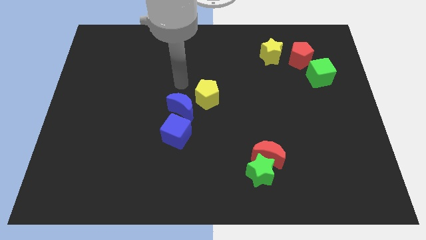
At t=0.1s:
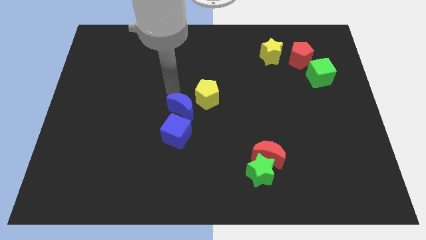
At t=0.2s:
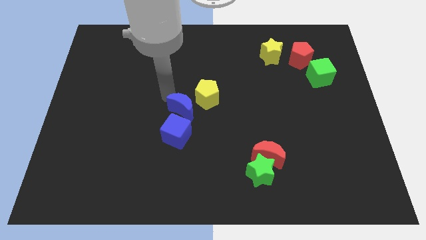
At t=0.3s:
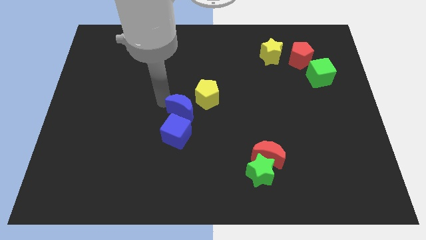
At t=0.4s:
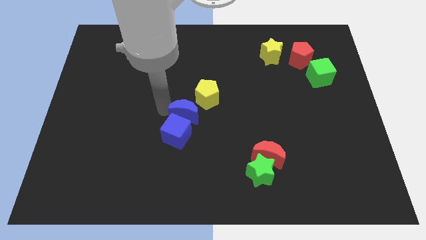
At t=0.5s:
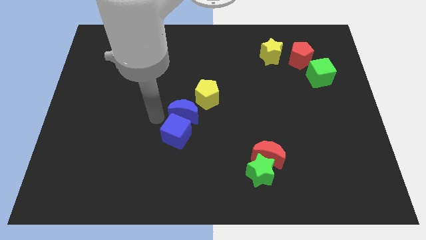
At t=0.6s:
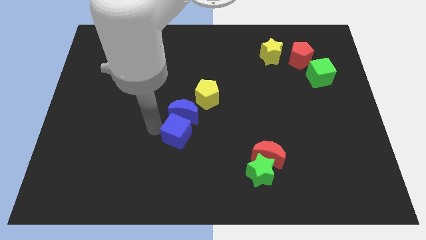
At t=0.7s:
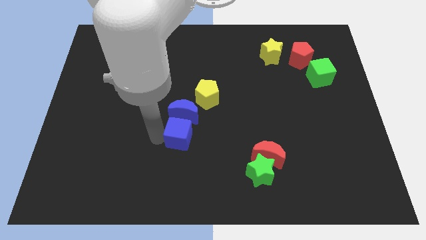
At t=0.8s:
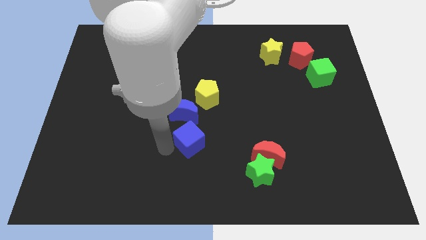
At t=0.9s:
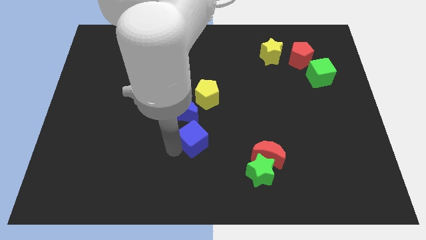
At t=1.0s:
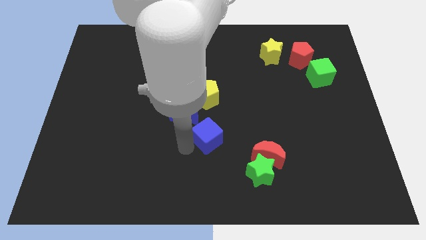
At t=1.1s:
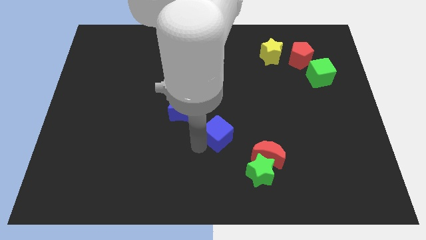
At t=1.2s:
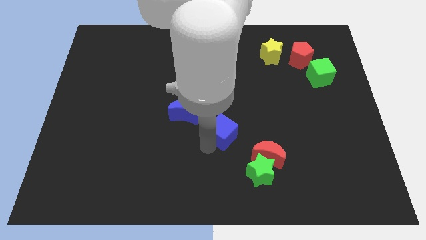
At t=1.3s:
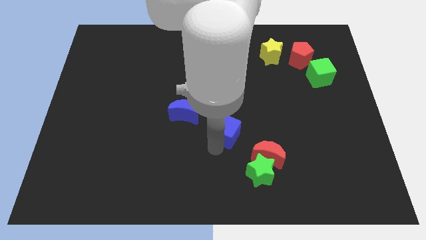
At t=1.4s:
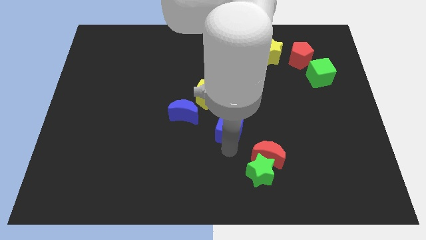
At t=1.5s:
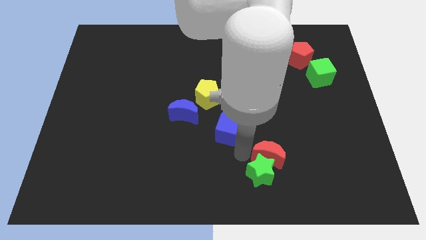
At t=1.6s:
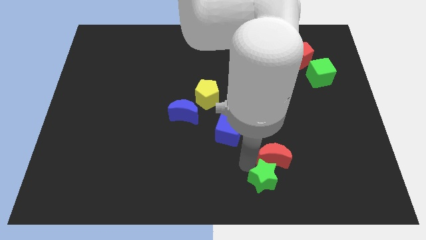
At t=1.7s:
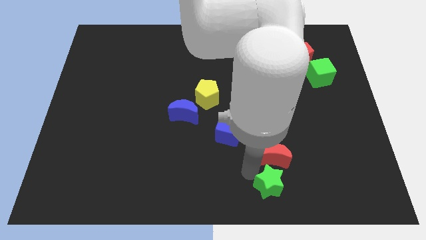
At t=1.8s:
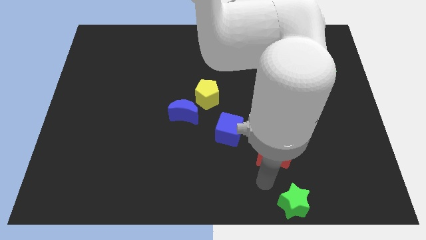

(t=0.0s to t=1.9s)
separate the red moon from the green star

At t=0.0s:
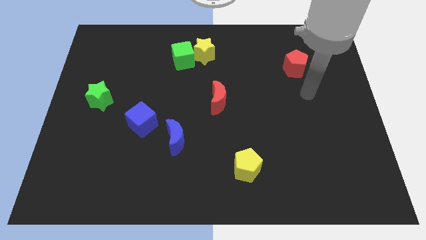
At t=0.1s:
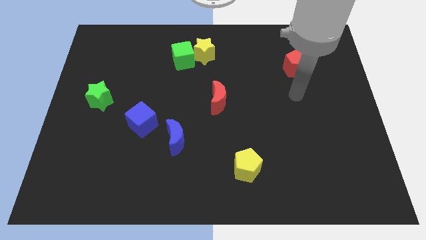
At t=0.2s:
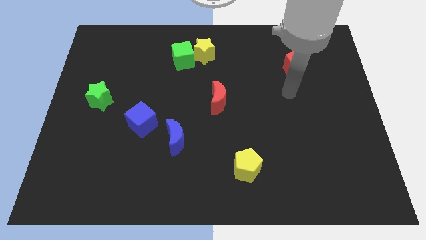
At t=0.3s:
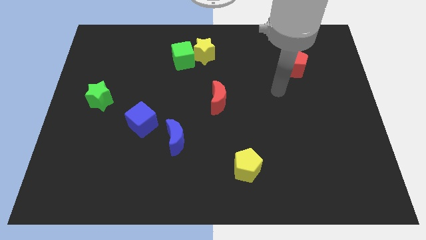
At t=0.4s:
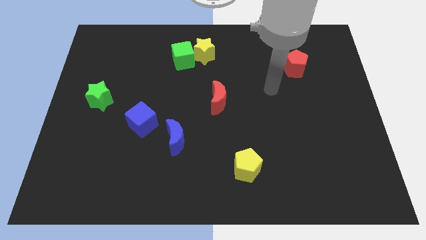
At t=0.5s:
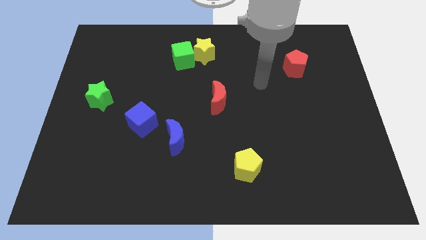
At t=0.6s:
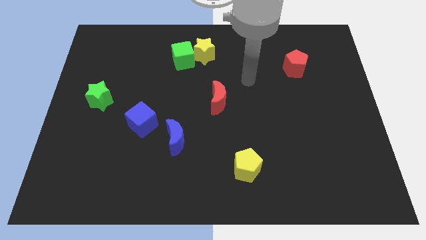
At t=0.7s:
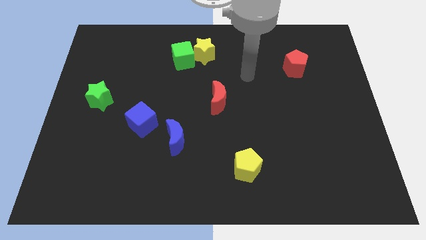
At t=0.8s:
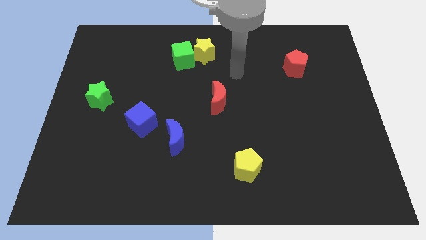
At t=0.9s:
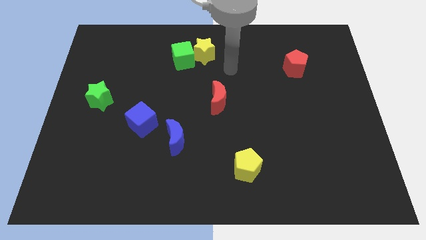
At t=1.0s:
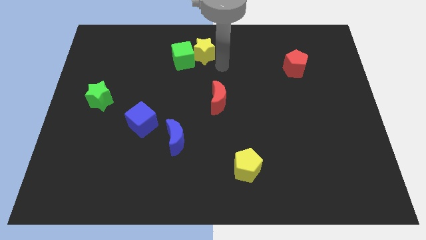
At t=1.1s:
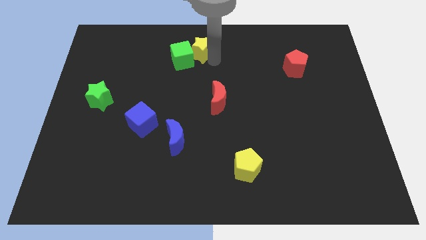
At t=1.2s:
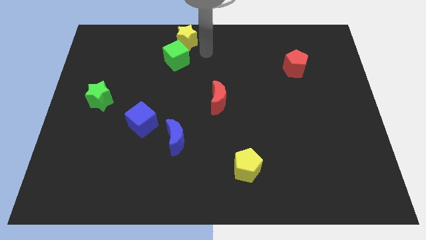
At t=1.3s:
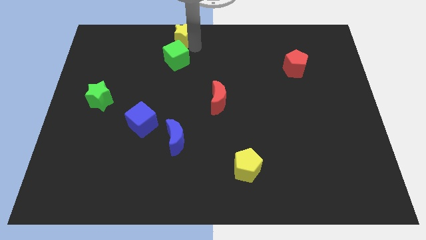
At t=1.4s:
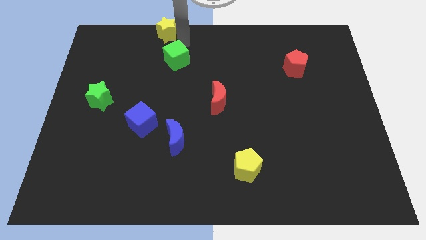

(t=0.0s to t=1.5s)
move the green cube away from the yellow star

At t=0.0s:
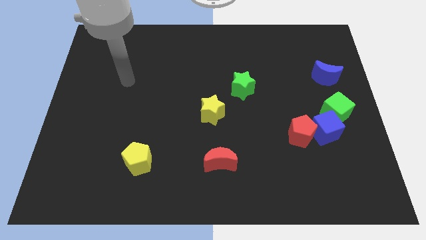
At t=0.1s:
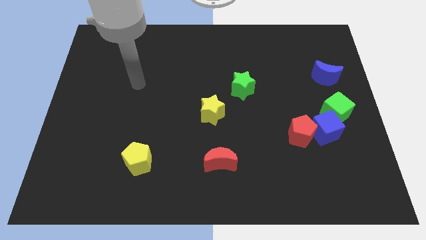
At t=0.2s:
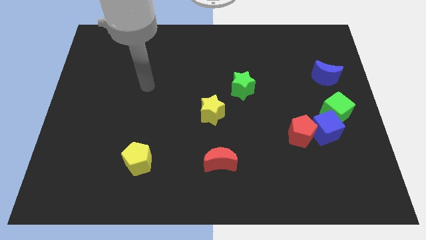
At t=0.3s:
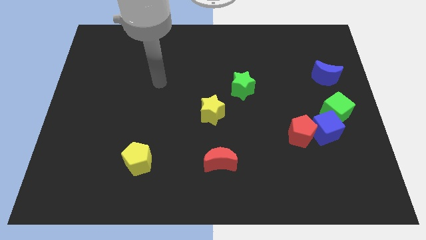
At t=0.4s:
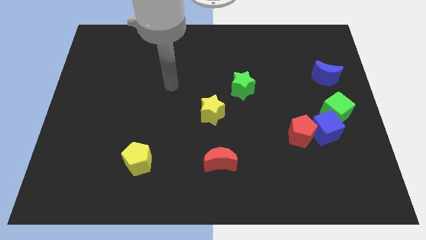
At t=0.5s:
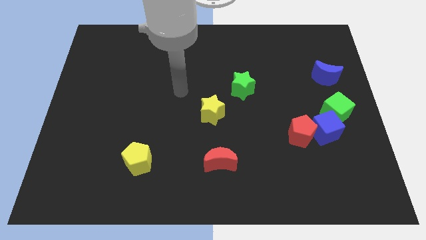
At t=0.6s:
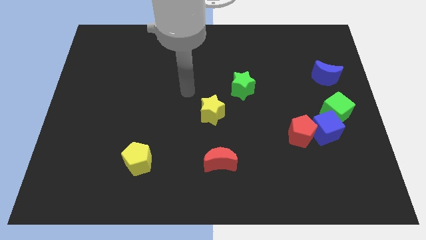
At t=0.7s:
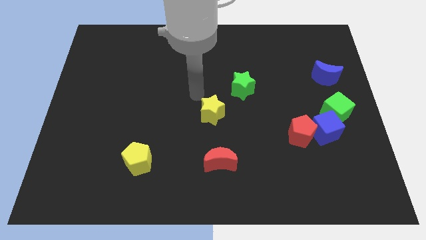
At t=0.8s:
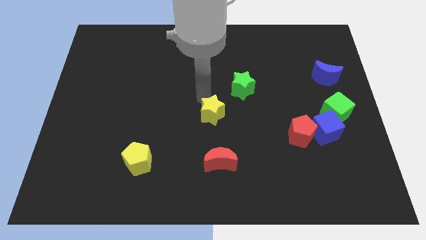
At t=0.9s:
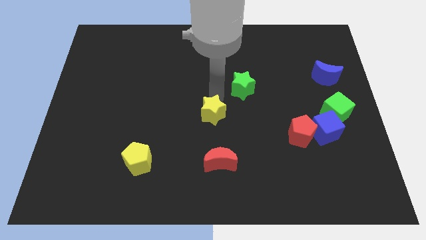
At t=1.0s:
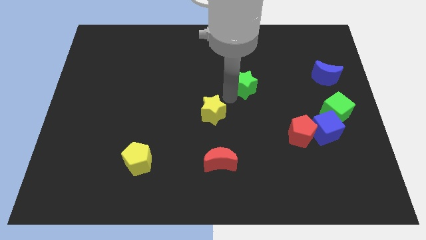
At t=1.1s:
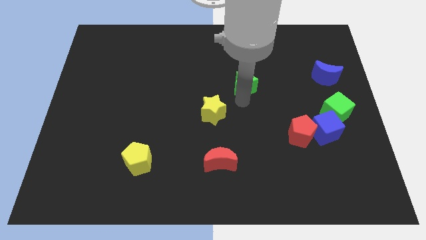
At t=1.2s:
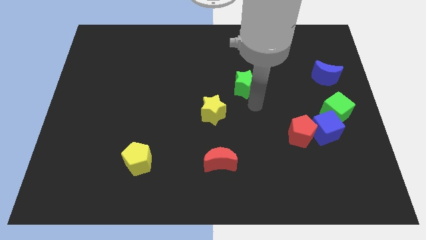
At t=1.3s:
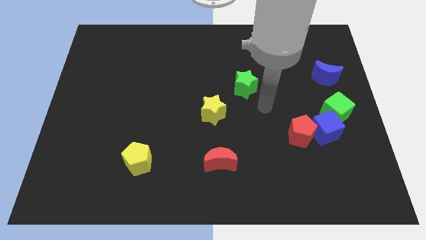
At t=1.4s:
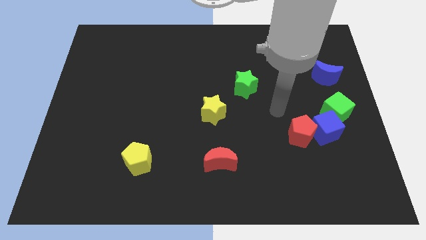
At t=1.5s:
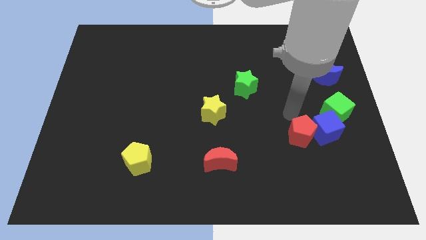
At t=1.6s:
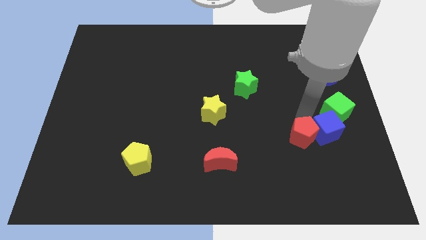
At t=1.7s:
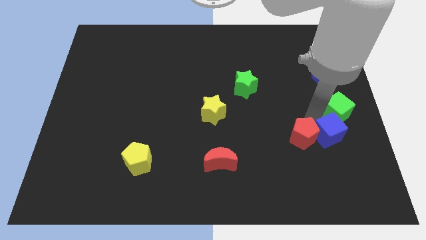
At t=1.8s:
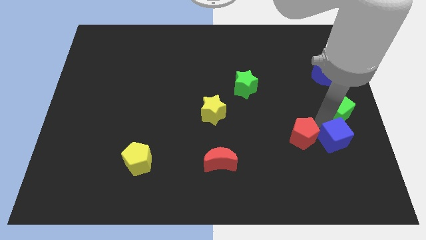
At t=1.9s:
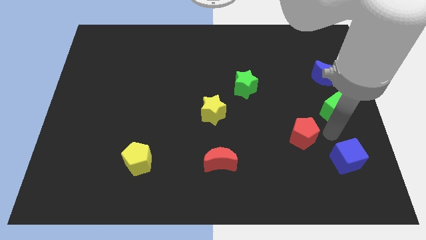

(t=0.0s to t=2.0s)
separate the red pentagon from the blue cube

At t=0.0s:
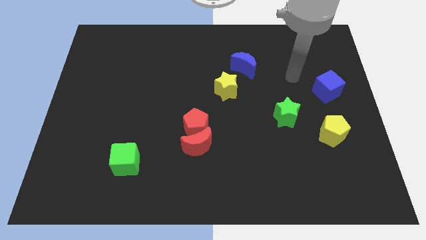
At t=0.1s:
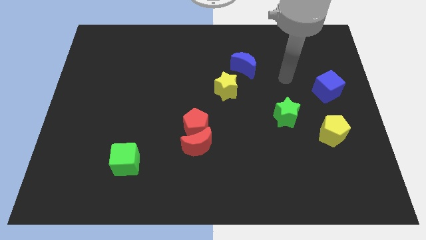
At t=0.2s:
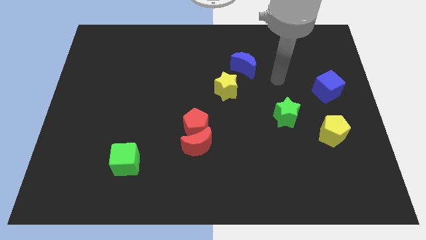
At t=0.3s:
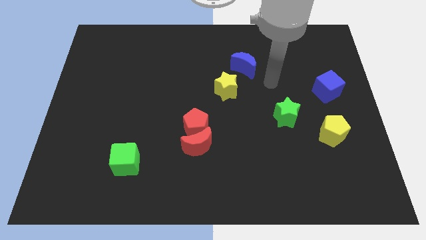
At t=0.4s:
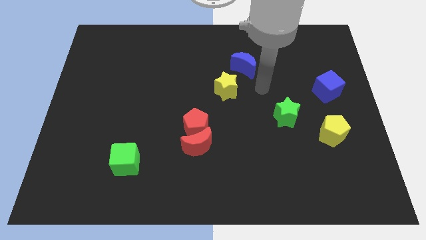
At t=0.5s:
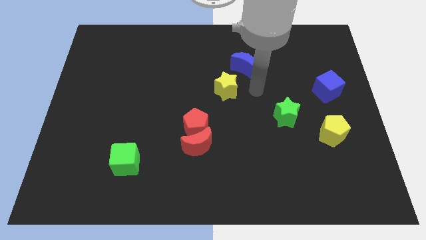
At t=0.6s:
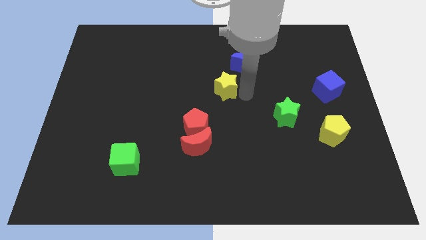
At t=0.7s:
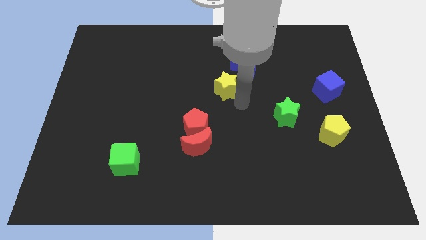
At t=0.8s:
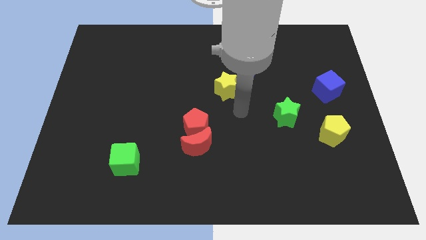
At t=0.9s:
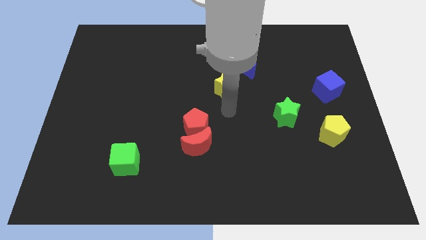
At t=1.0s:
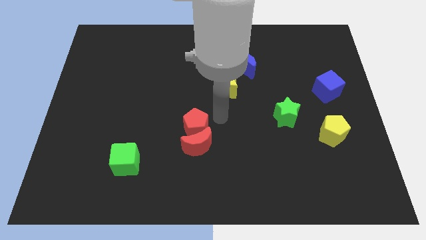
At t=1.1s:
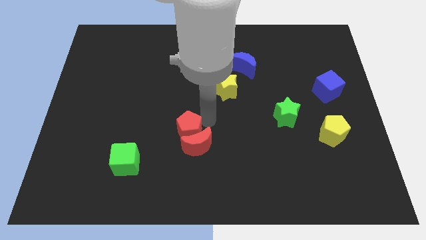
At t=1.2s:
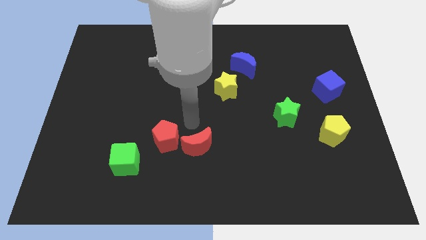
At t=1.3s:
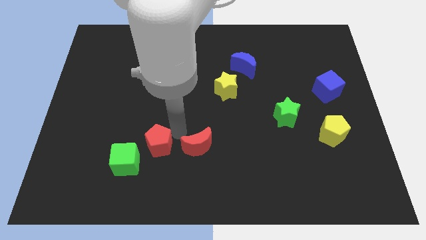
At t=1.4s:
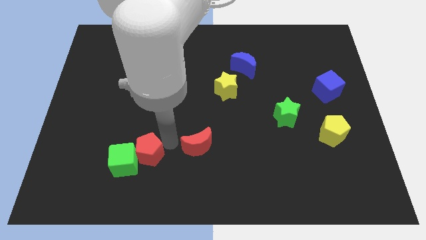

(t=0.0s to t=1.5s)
separate the red moon from the red pentagon

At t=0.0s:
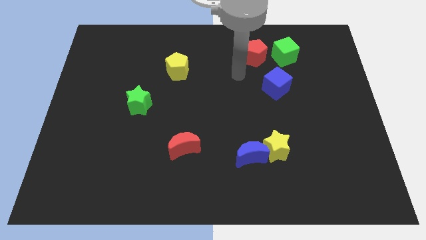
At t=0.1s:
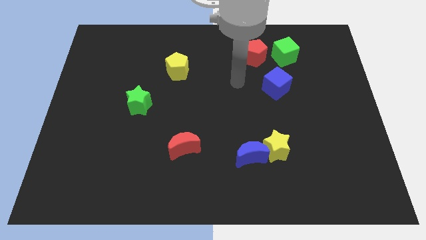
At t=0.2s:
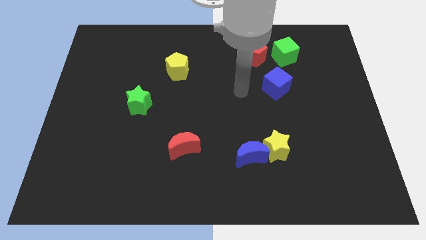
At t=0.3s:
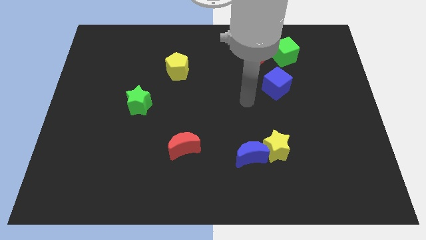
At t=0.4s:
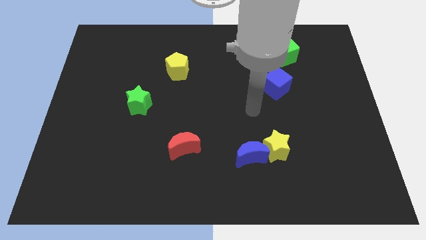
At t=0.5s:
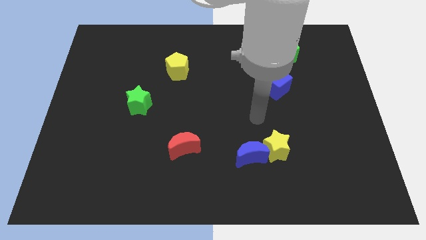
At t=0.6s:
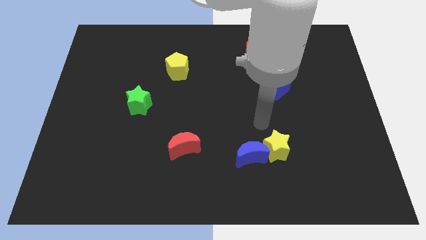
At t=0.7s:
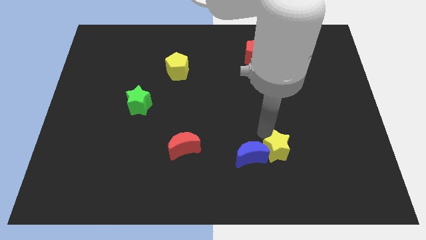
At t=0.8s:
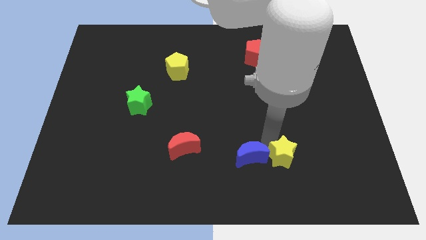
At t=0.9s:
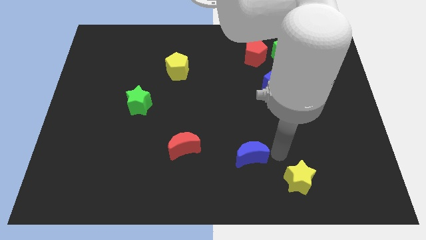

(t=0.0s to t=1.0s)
separate the blue moon from the yellow star

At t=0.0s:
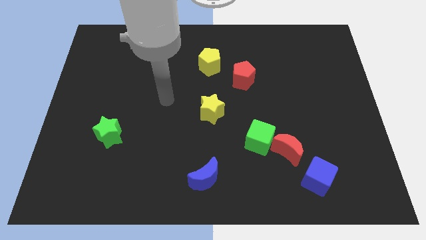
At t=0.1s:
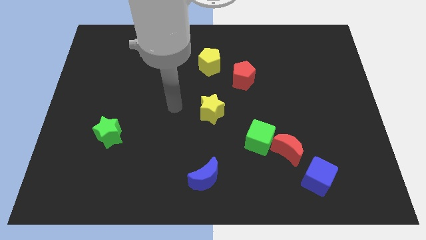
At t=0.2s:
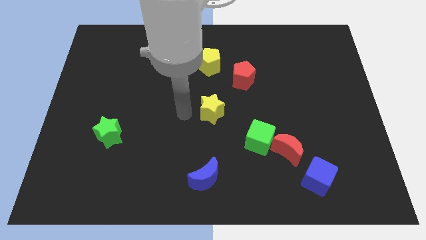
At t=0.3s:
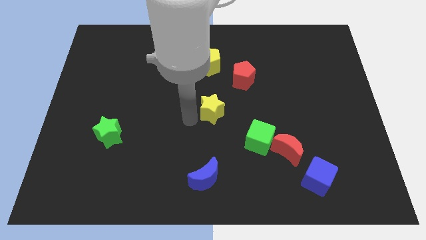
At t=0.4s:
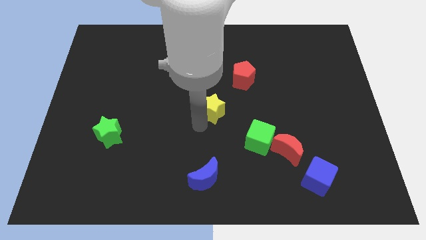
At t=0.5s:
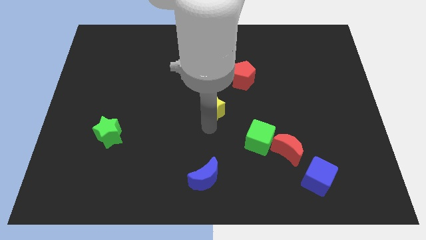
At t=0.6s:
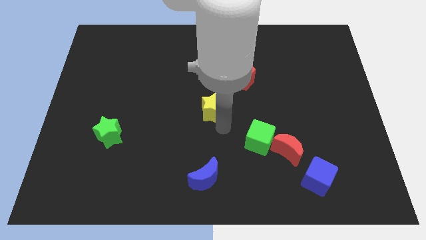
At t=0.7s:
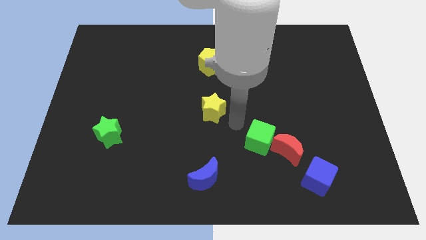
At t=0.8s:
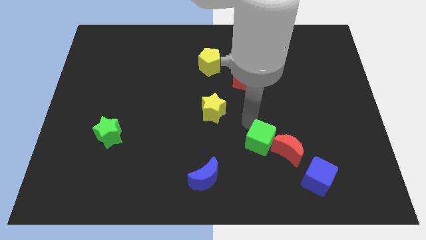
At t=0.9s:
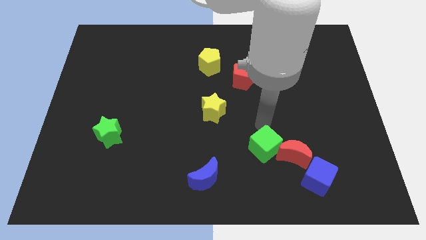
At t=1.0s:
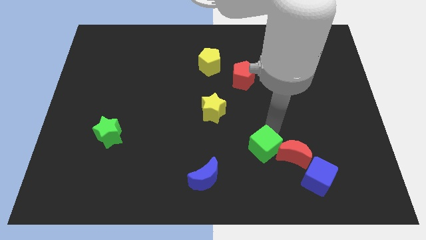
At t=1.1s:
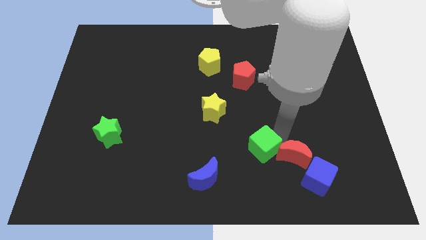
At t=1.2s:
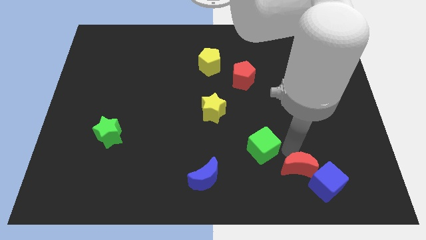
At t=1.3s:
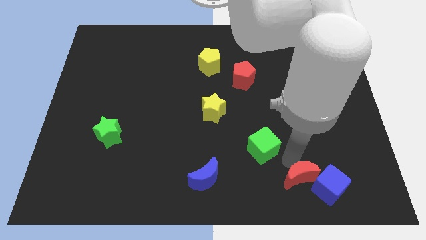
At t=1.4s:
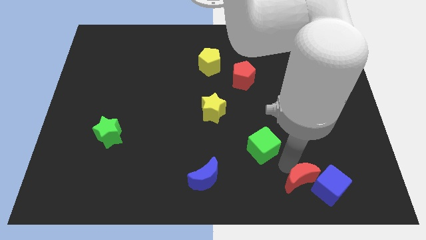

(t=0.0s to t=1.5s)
pull the green cube apart from the red moon
